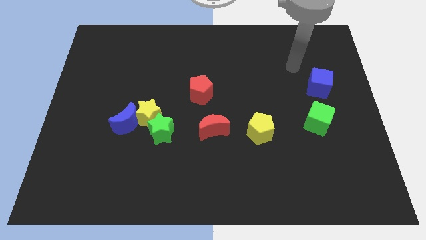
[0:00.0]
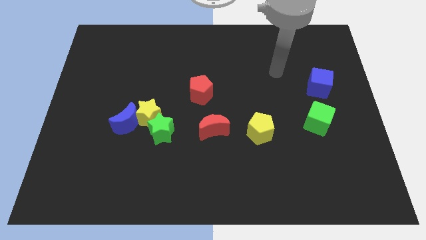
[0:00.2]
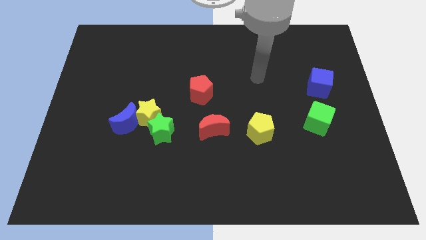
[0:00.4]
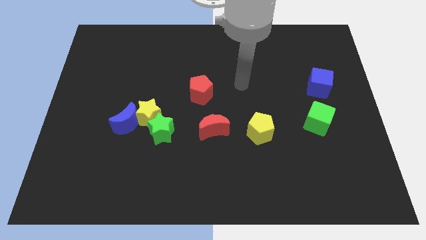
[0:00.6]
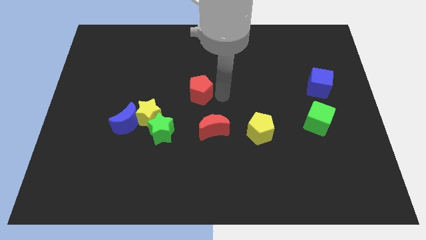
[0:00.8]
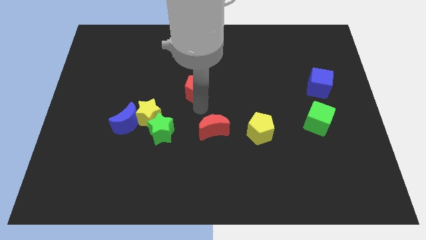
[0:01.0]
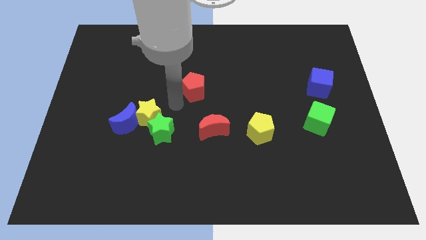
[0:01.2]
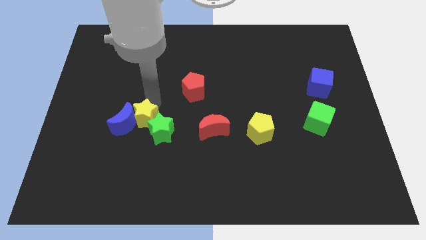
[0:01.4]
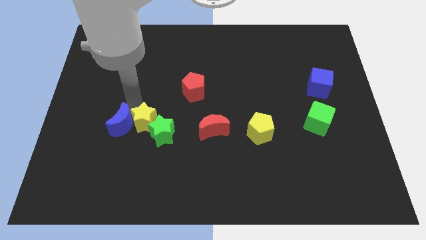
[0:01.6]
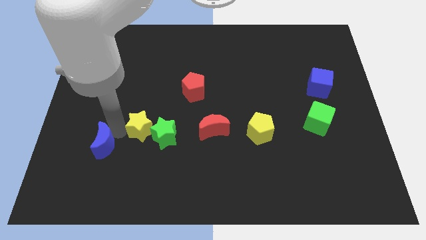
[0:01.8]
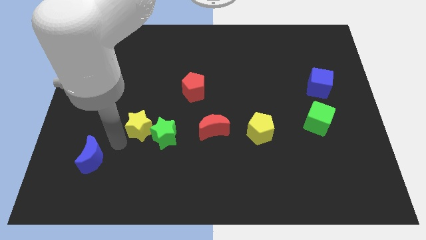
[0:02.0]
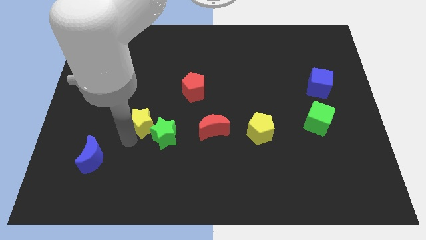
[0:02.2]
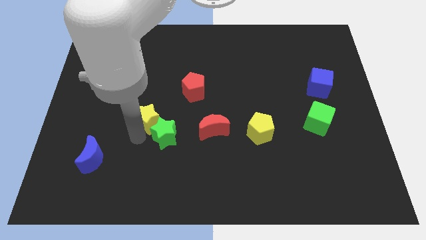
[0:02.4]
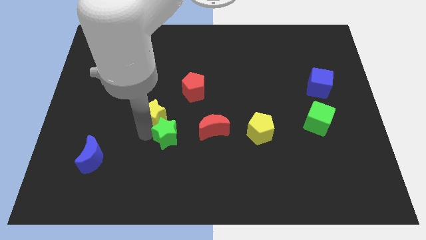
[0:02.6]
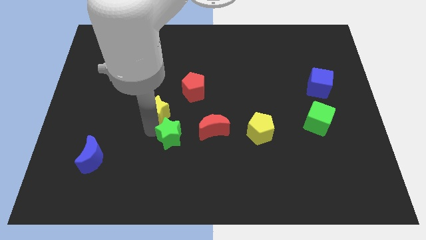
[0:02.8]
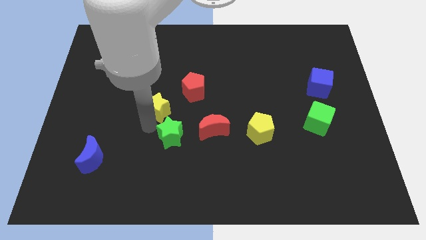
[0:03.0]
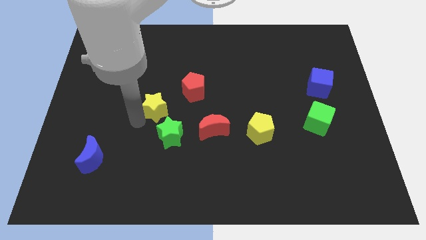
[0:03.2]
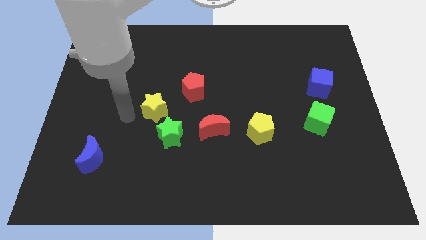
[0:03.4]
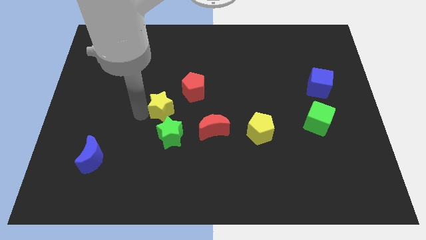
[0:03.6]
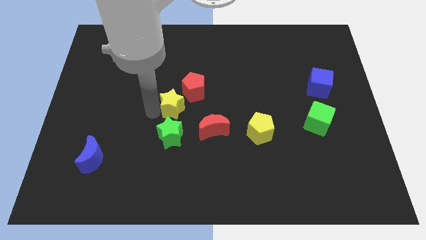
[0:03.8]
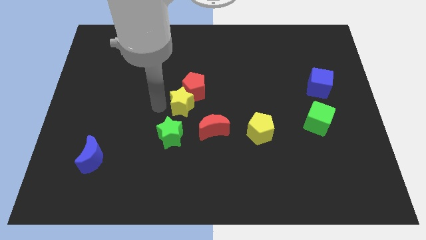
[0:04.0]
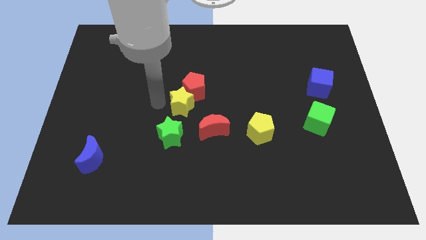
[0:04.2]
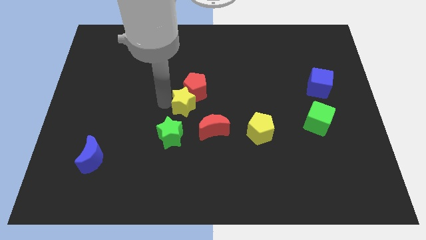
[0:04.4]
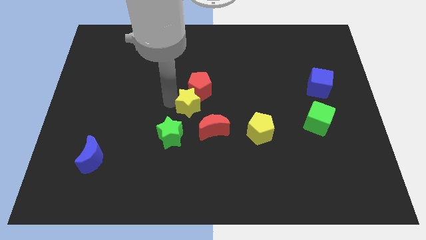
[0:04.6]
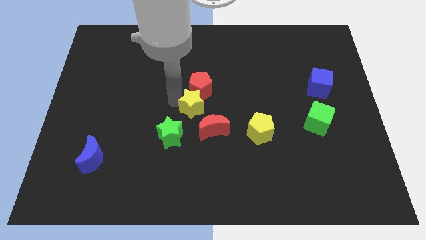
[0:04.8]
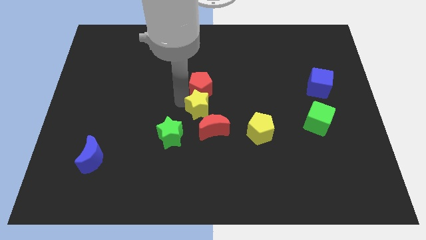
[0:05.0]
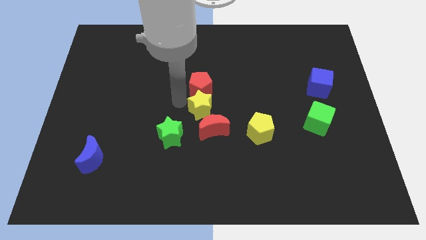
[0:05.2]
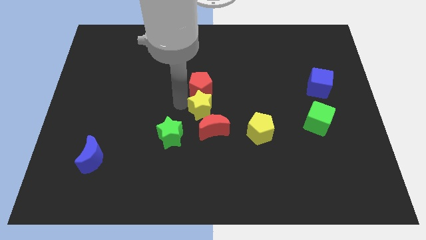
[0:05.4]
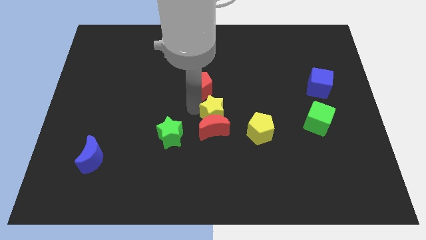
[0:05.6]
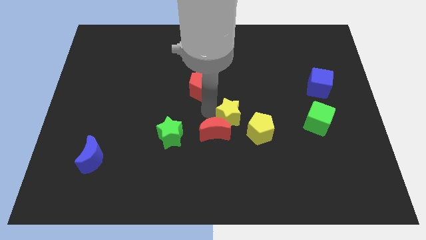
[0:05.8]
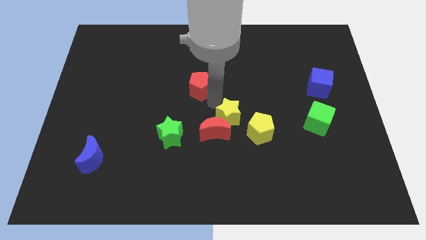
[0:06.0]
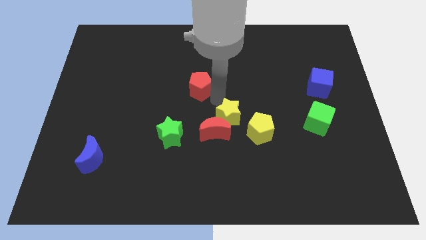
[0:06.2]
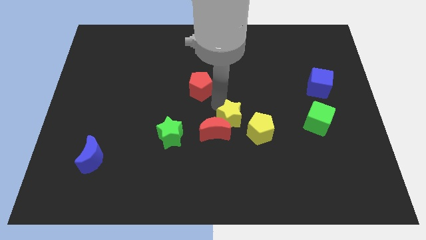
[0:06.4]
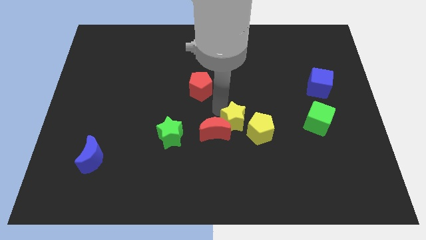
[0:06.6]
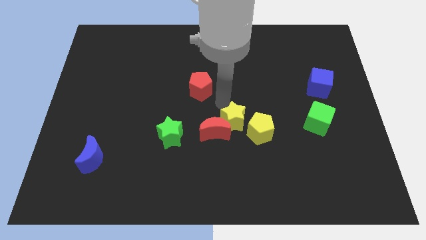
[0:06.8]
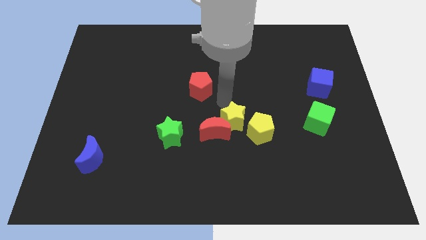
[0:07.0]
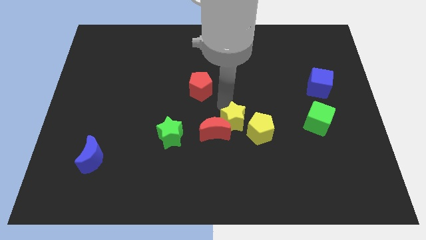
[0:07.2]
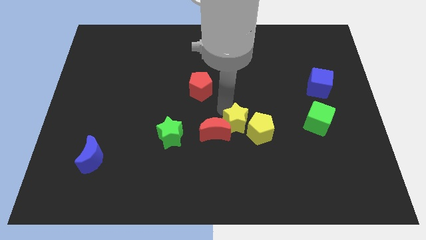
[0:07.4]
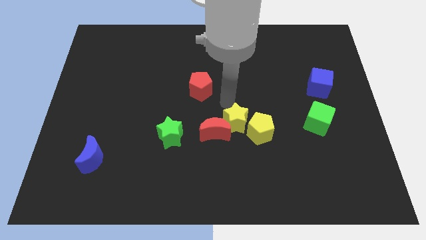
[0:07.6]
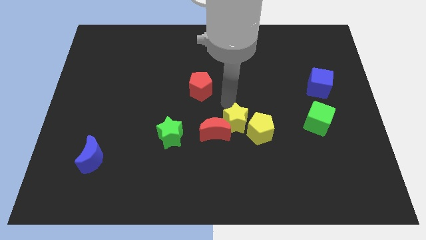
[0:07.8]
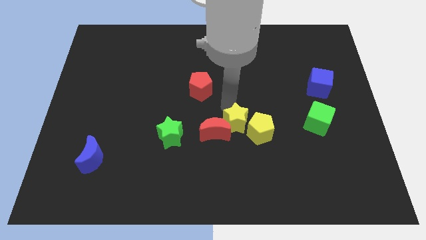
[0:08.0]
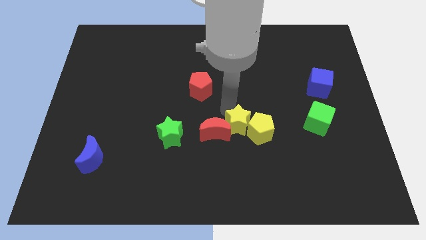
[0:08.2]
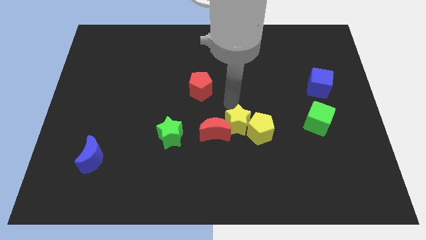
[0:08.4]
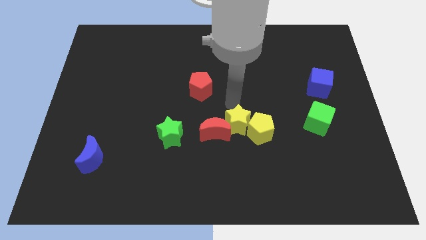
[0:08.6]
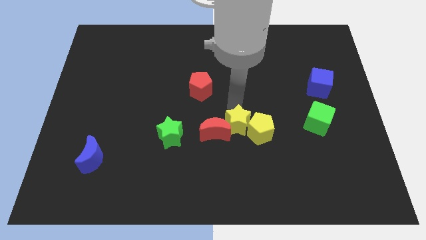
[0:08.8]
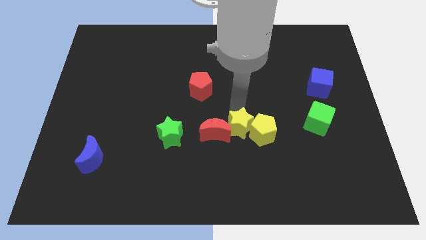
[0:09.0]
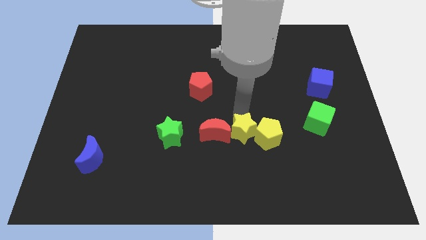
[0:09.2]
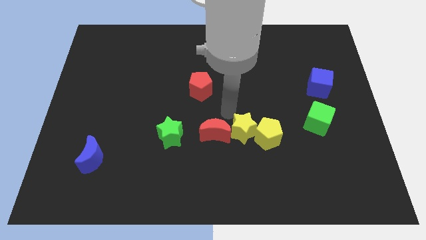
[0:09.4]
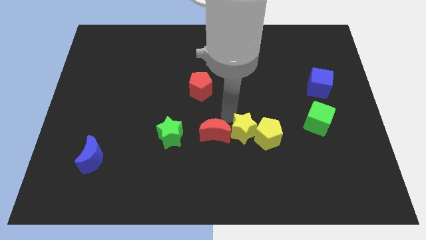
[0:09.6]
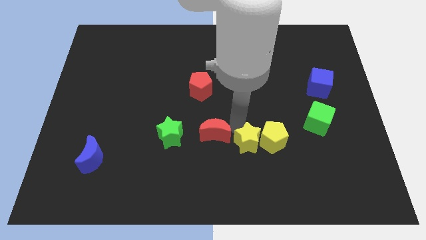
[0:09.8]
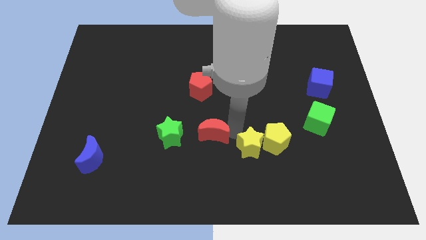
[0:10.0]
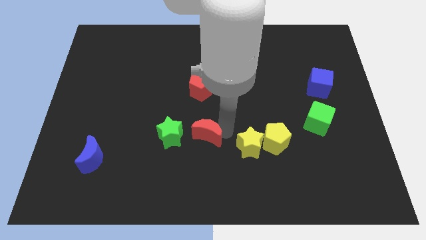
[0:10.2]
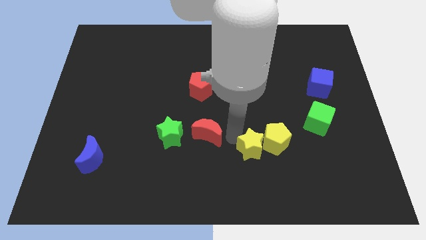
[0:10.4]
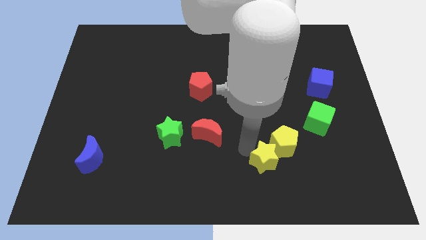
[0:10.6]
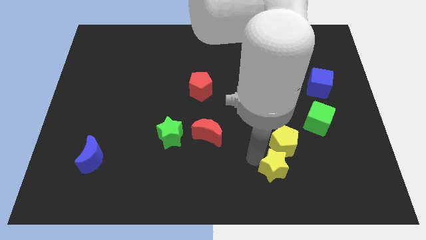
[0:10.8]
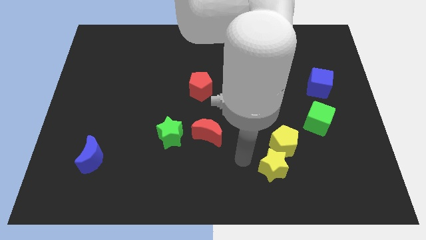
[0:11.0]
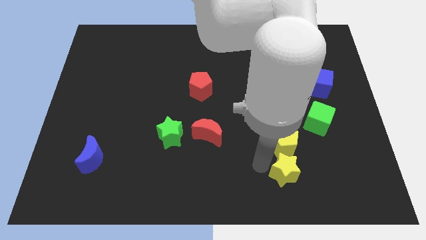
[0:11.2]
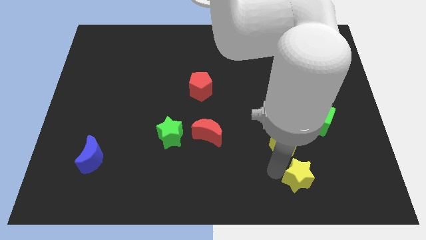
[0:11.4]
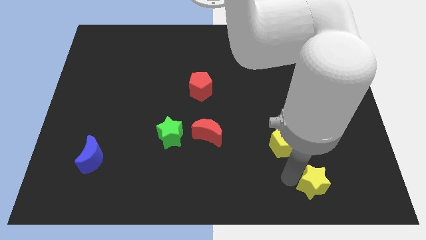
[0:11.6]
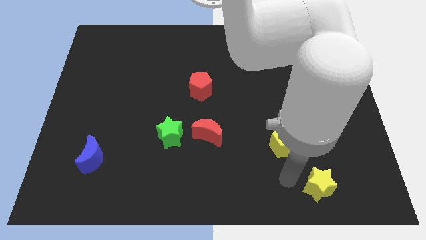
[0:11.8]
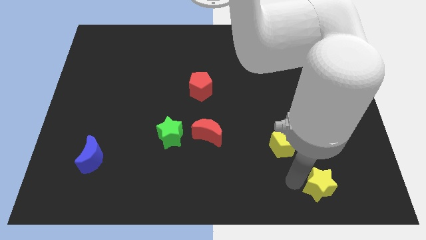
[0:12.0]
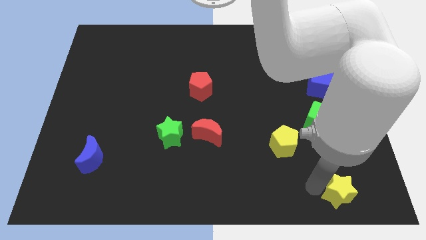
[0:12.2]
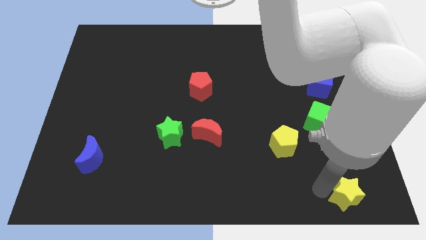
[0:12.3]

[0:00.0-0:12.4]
move the yellow star to the bottom right corner
